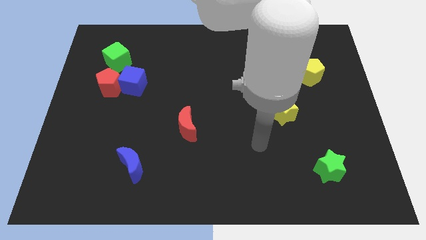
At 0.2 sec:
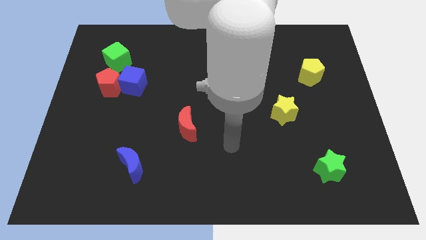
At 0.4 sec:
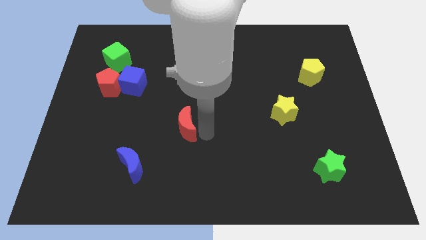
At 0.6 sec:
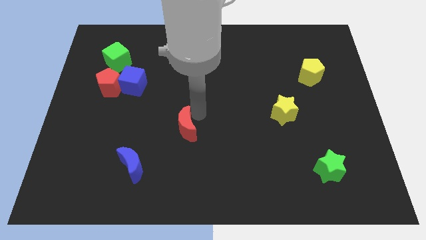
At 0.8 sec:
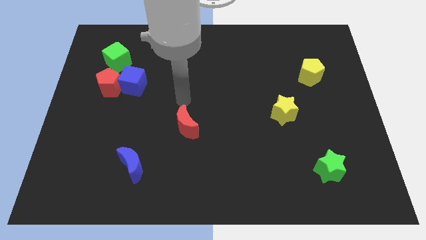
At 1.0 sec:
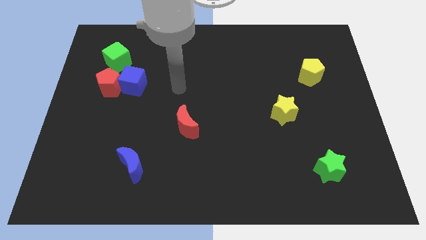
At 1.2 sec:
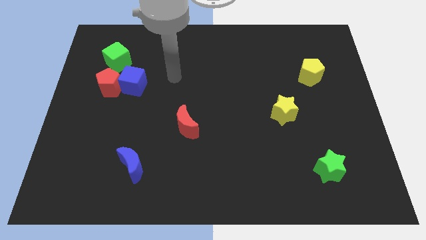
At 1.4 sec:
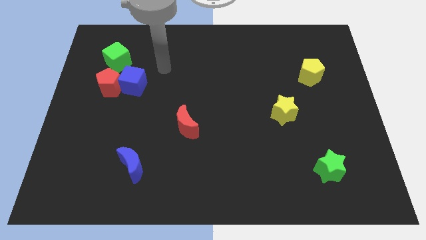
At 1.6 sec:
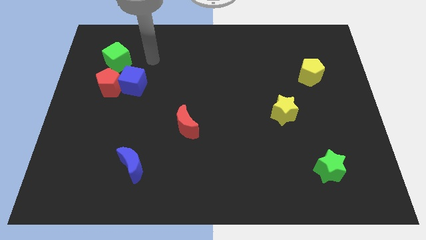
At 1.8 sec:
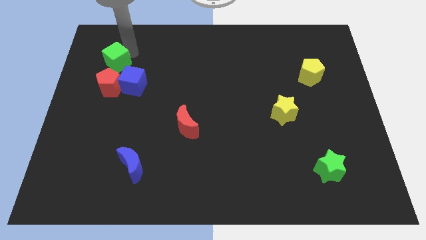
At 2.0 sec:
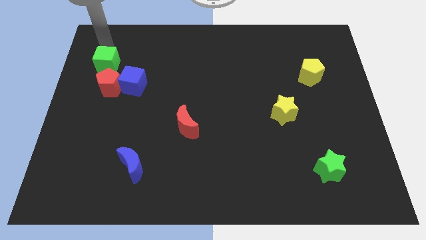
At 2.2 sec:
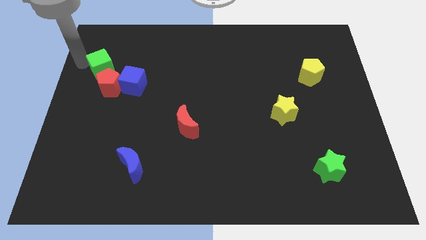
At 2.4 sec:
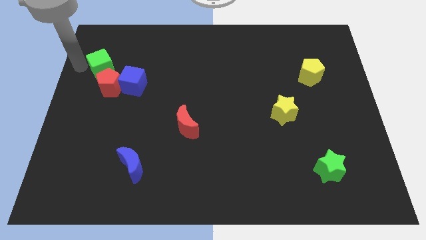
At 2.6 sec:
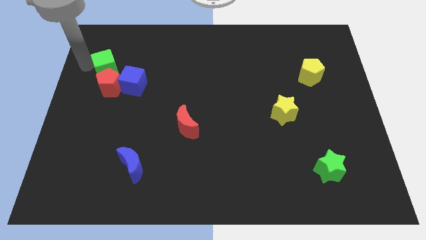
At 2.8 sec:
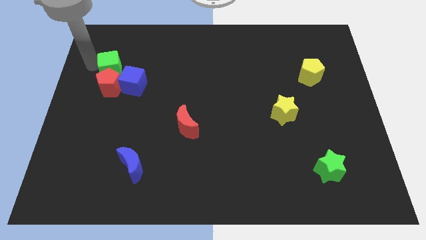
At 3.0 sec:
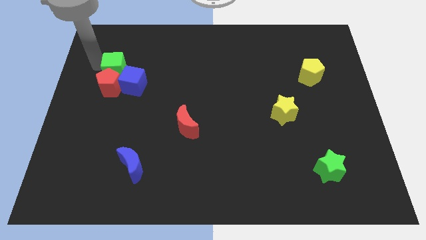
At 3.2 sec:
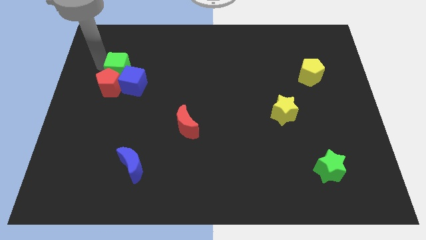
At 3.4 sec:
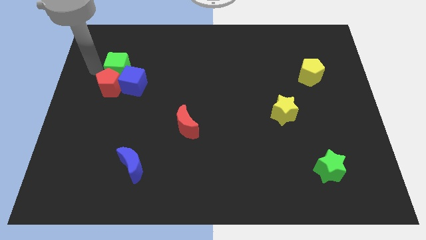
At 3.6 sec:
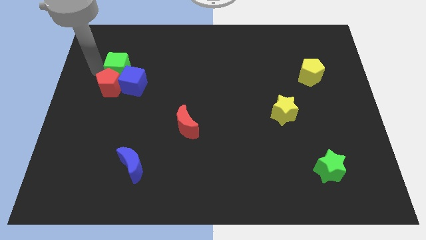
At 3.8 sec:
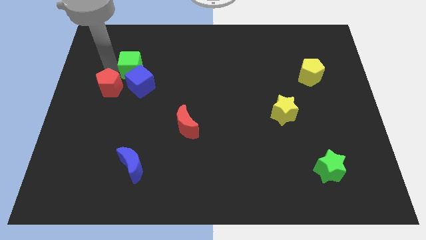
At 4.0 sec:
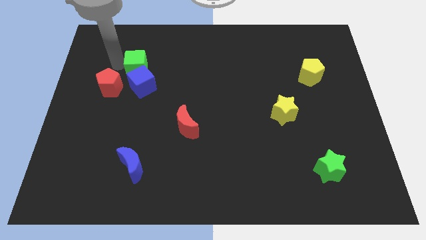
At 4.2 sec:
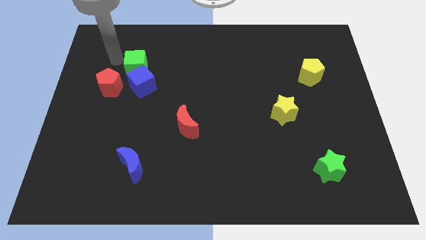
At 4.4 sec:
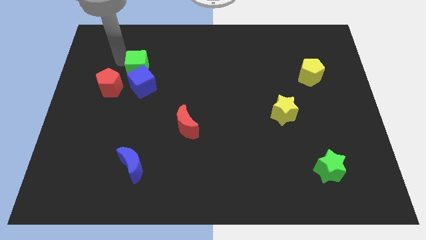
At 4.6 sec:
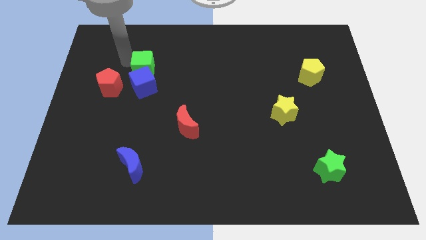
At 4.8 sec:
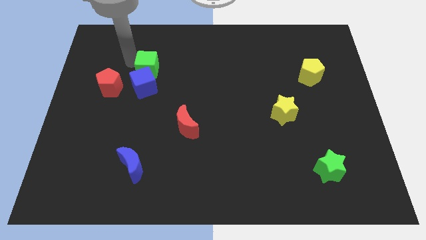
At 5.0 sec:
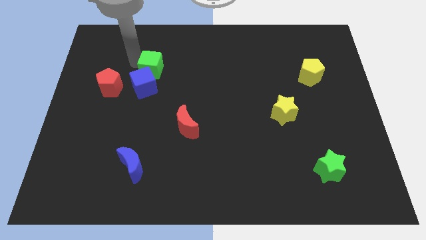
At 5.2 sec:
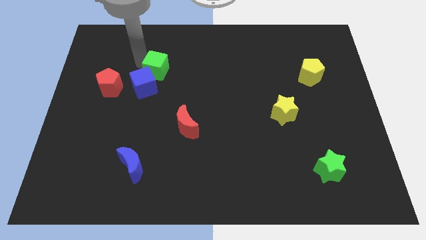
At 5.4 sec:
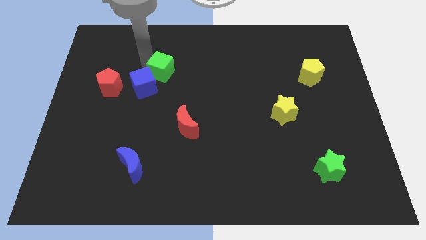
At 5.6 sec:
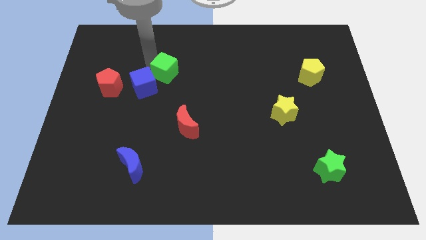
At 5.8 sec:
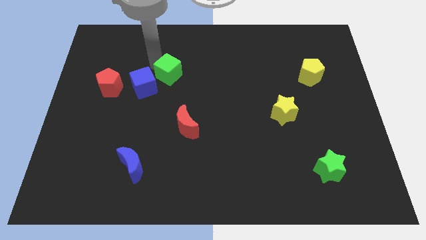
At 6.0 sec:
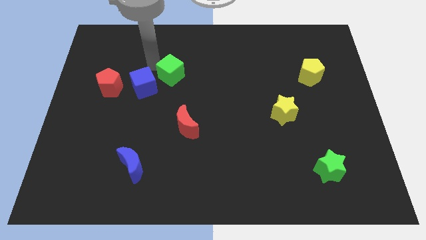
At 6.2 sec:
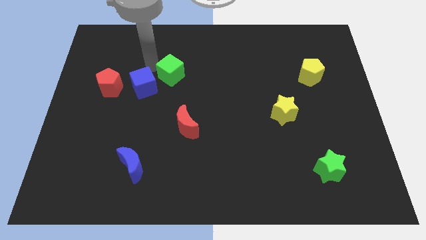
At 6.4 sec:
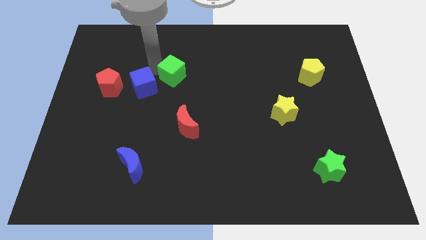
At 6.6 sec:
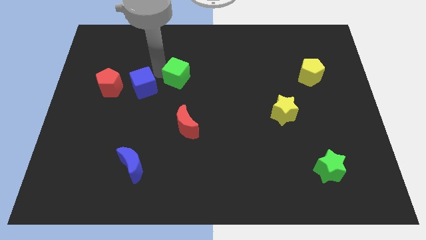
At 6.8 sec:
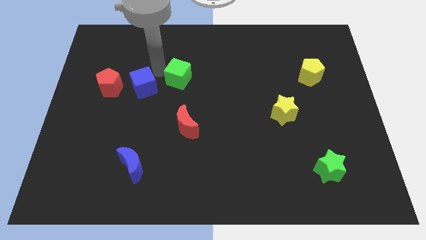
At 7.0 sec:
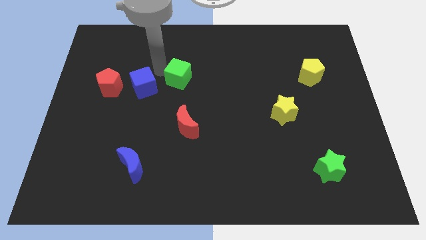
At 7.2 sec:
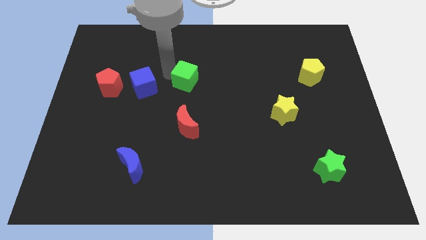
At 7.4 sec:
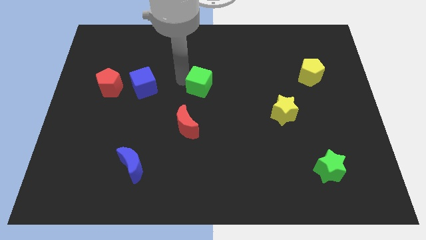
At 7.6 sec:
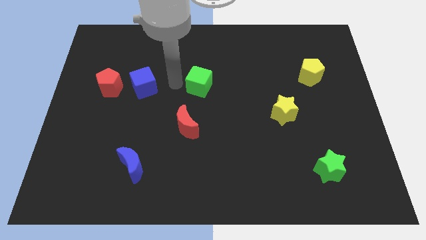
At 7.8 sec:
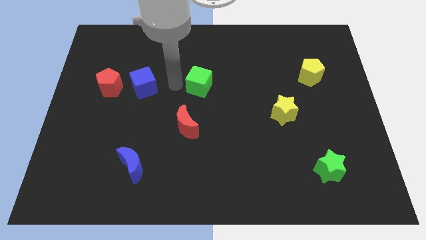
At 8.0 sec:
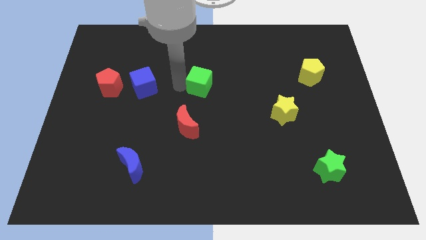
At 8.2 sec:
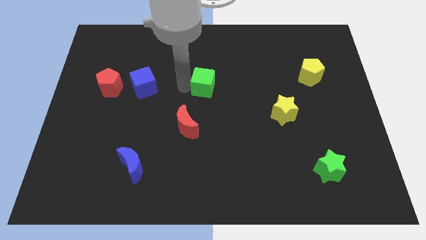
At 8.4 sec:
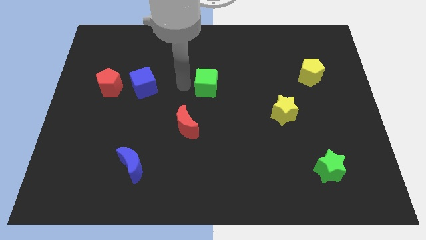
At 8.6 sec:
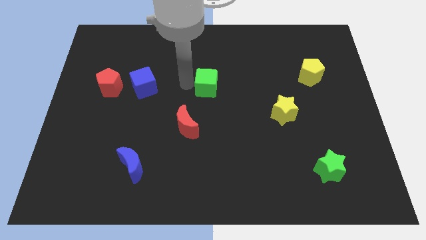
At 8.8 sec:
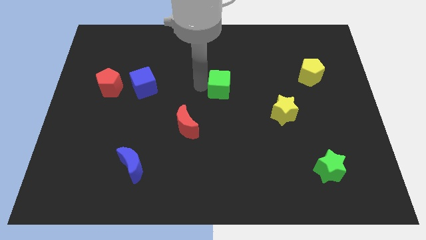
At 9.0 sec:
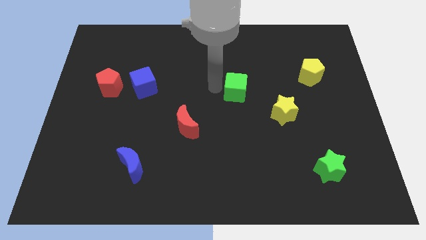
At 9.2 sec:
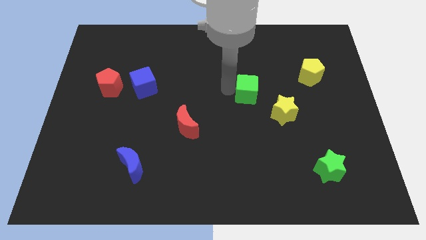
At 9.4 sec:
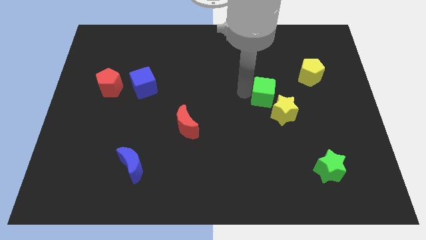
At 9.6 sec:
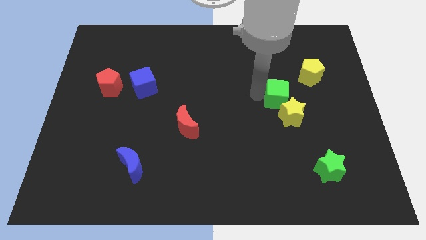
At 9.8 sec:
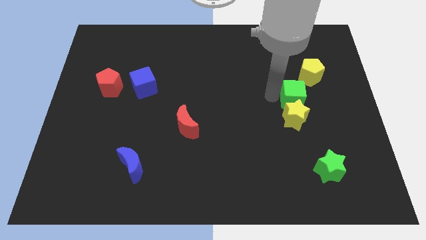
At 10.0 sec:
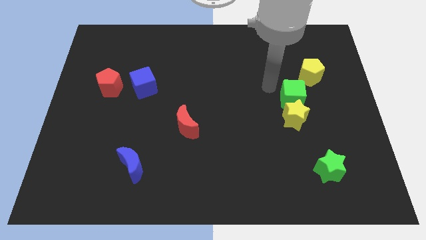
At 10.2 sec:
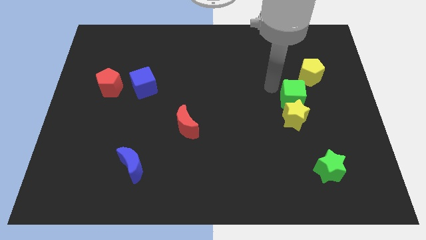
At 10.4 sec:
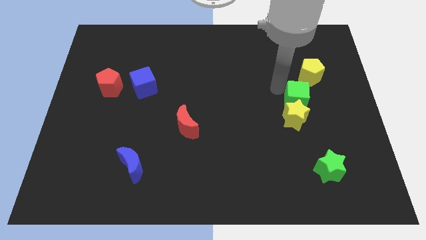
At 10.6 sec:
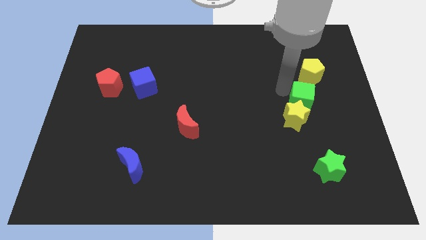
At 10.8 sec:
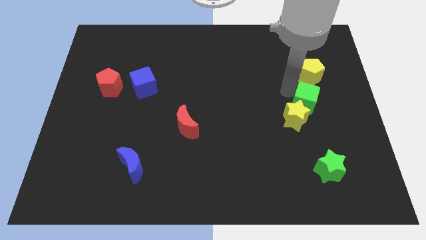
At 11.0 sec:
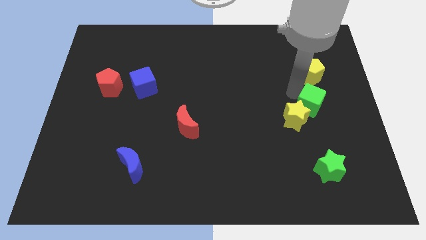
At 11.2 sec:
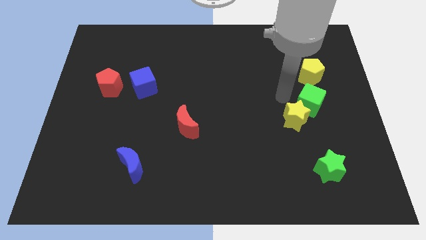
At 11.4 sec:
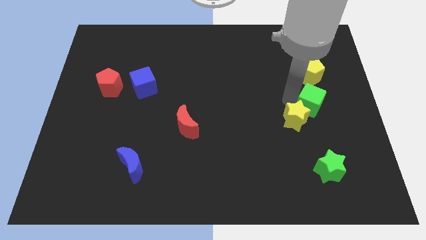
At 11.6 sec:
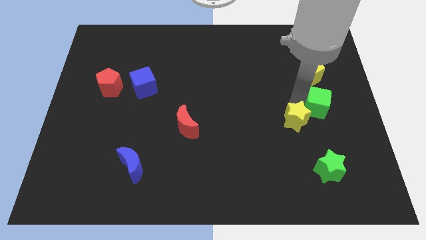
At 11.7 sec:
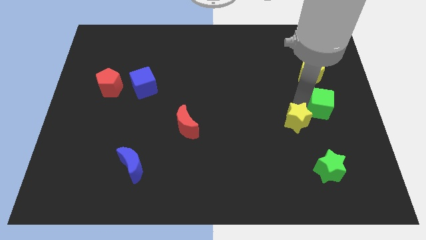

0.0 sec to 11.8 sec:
move the green cube to the right side of the board
